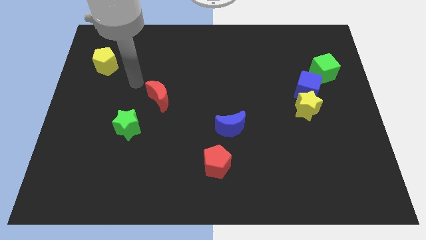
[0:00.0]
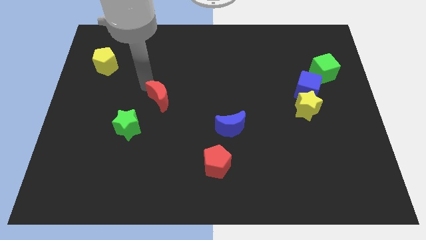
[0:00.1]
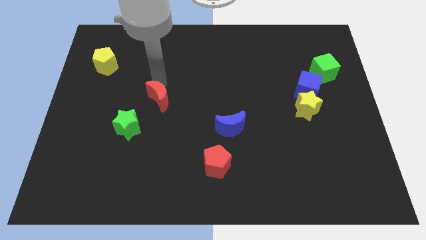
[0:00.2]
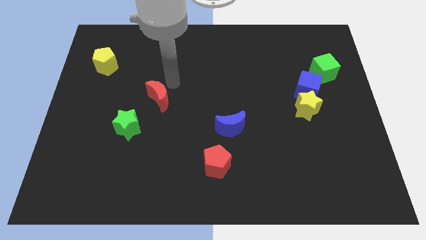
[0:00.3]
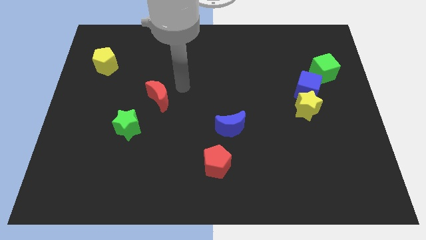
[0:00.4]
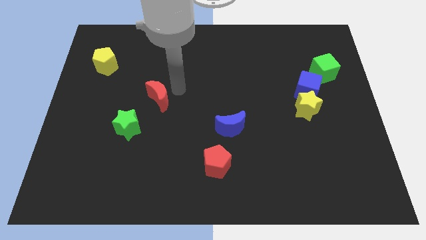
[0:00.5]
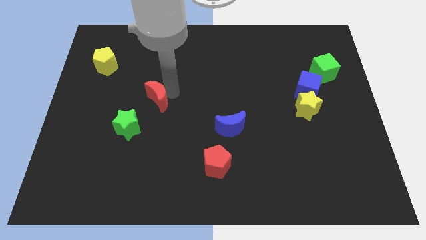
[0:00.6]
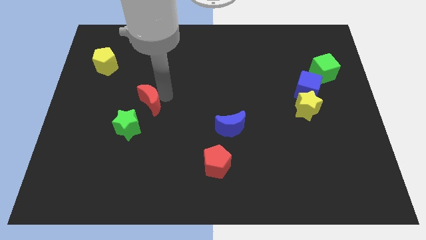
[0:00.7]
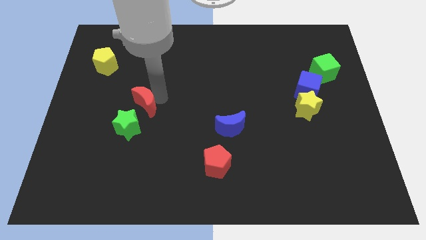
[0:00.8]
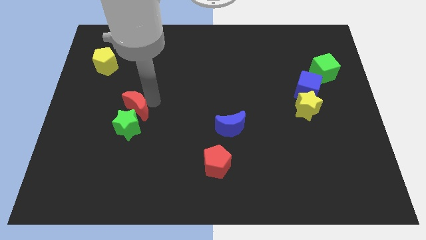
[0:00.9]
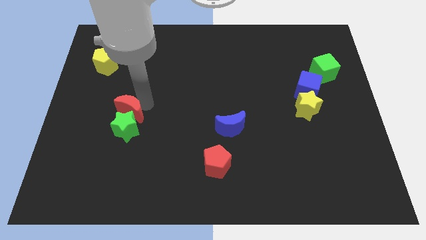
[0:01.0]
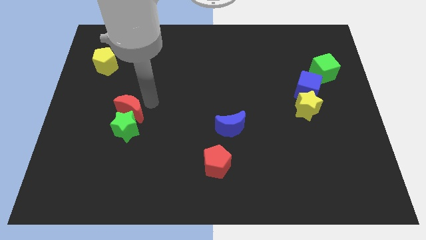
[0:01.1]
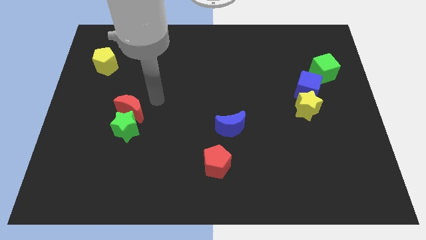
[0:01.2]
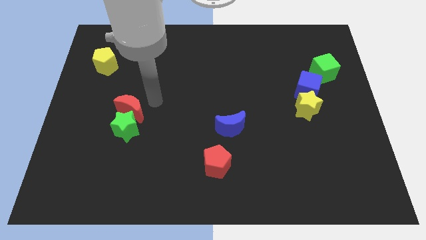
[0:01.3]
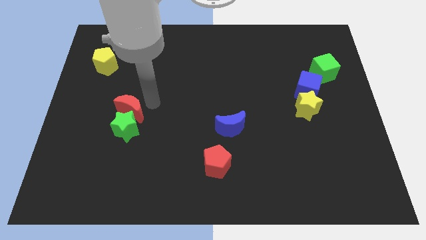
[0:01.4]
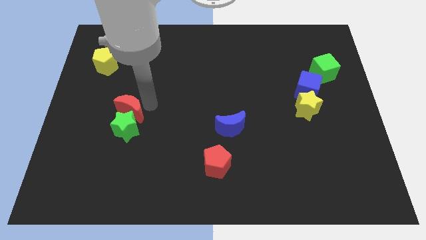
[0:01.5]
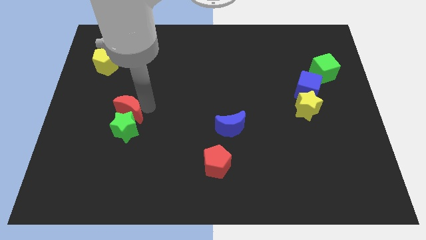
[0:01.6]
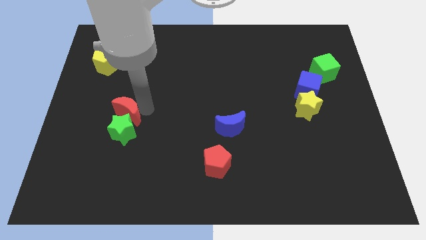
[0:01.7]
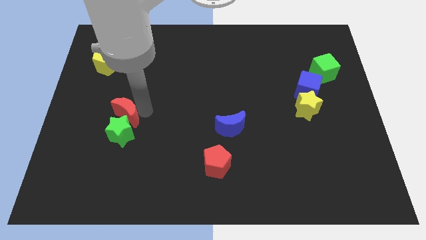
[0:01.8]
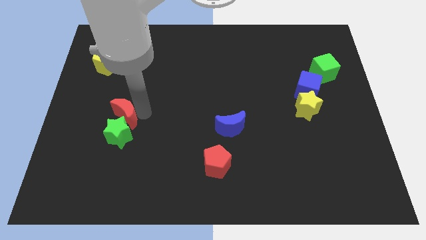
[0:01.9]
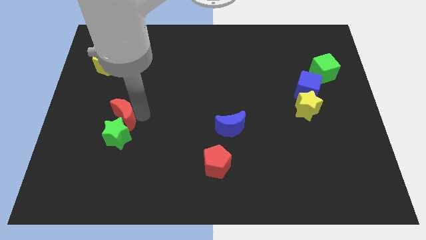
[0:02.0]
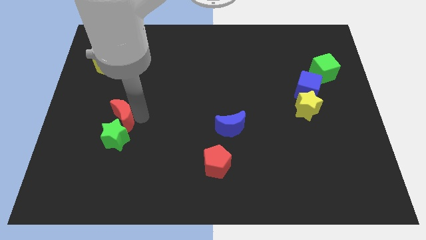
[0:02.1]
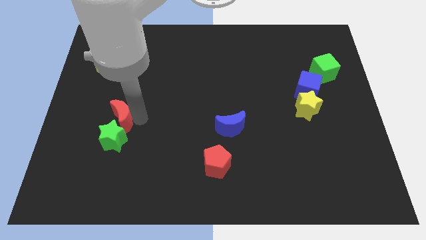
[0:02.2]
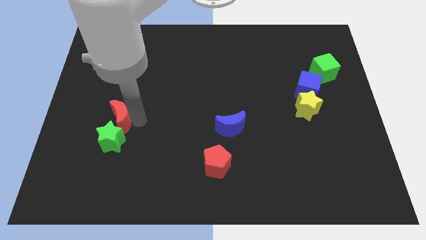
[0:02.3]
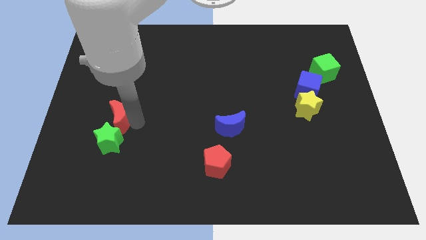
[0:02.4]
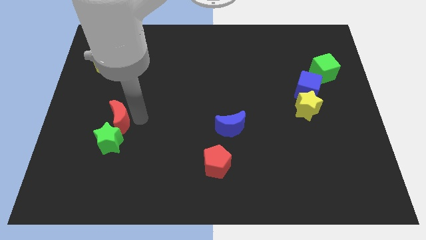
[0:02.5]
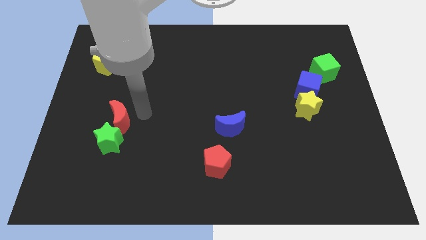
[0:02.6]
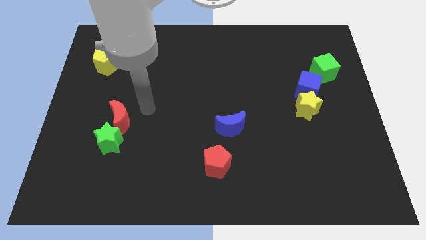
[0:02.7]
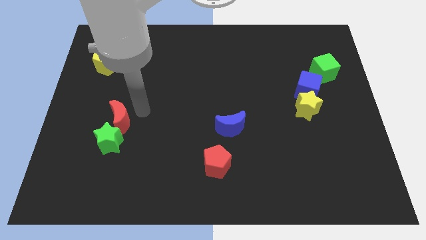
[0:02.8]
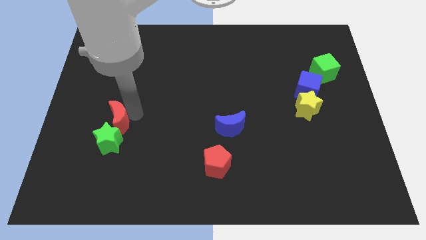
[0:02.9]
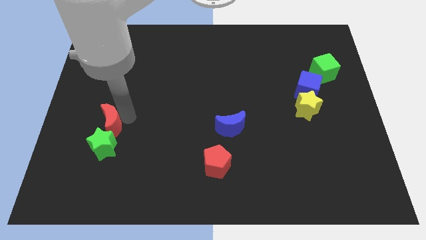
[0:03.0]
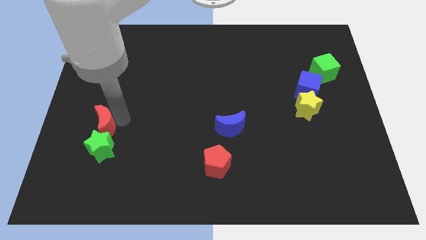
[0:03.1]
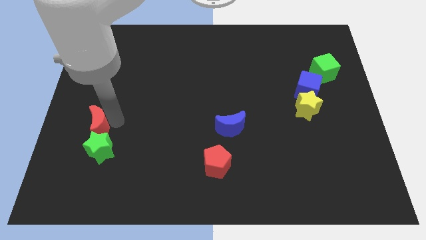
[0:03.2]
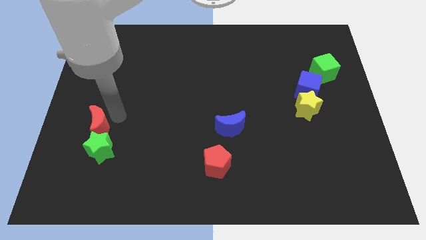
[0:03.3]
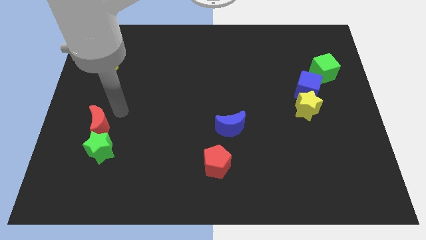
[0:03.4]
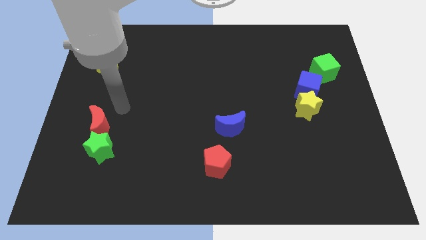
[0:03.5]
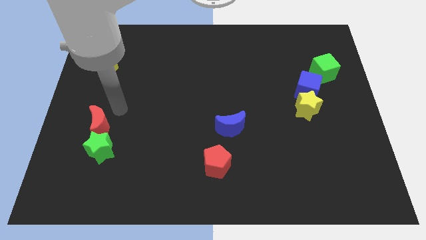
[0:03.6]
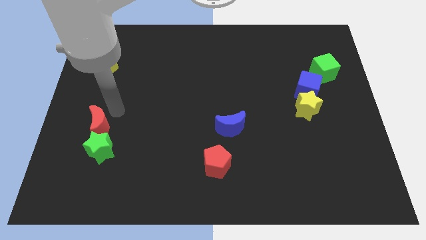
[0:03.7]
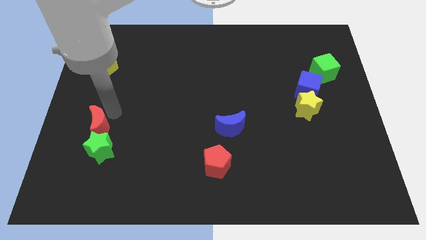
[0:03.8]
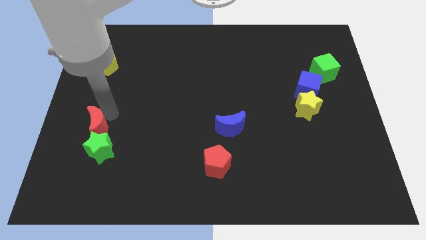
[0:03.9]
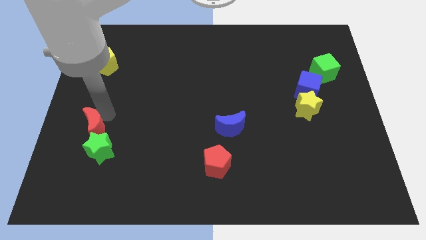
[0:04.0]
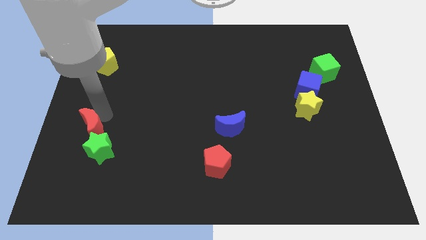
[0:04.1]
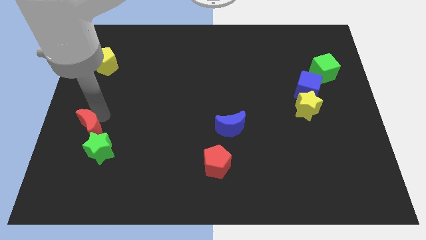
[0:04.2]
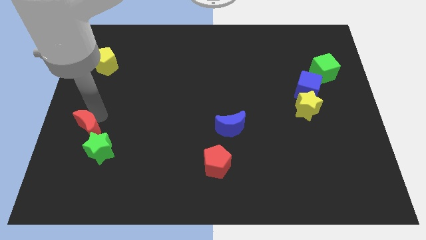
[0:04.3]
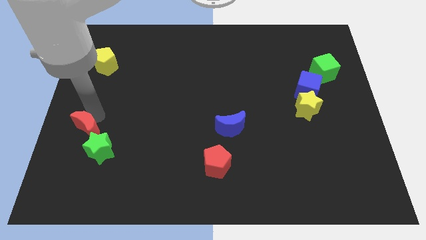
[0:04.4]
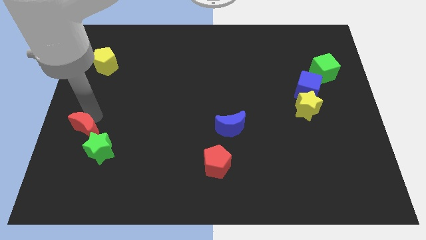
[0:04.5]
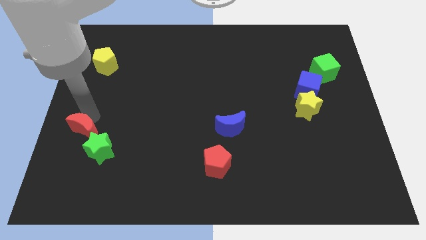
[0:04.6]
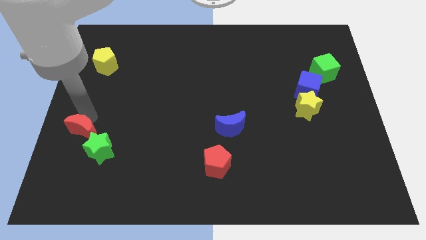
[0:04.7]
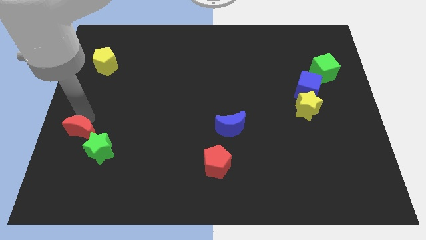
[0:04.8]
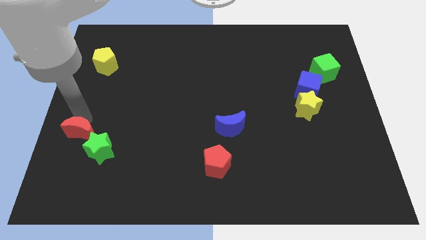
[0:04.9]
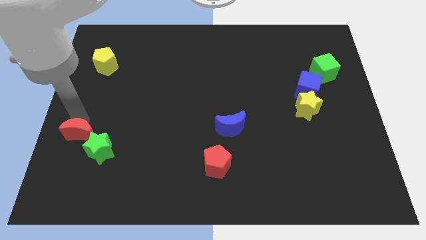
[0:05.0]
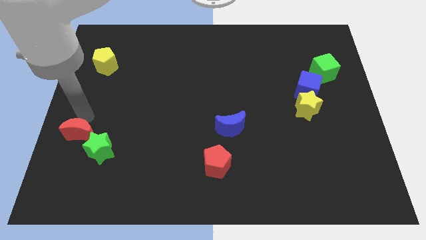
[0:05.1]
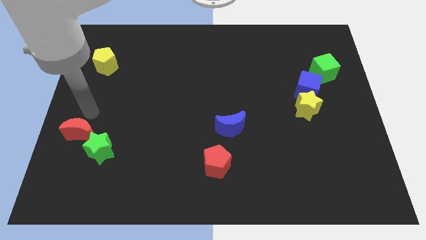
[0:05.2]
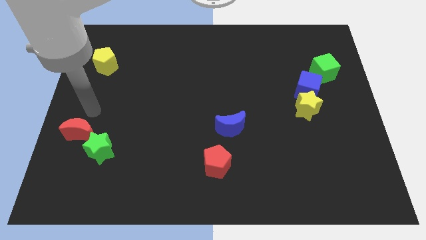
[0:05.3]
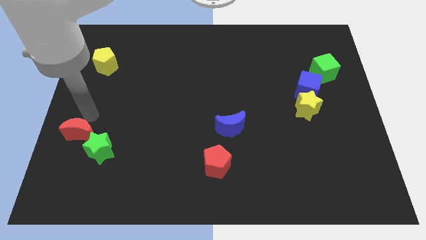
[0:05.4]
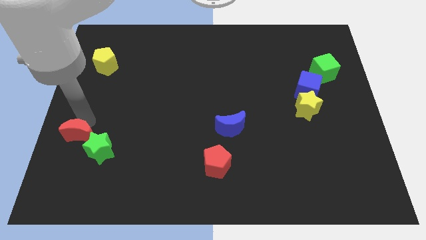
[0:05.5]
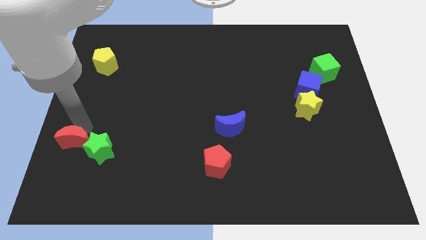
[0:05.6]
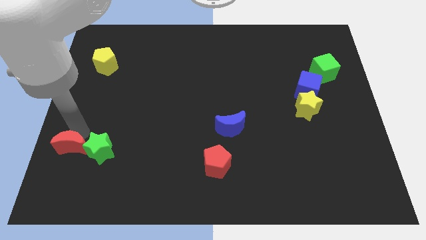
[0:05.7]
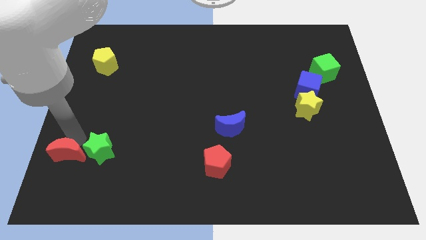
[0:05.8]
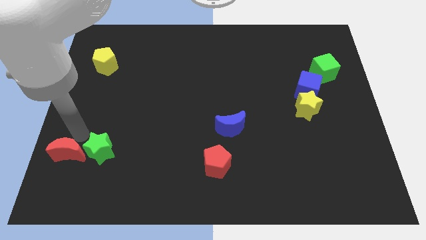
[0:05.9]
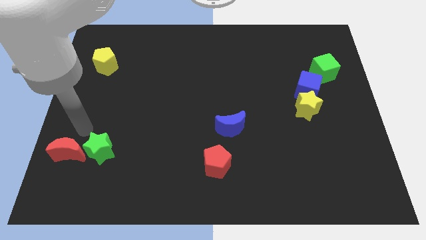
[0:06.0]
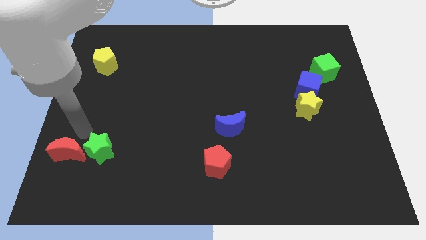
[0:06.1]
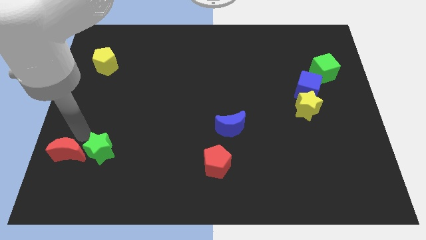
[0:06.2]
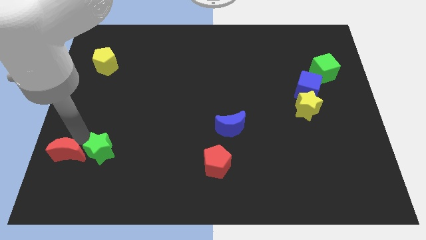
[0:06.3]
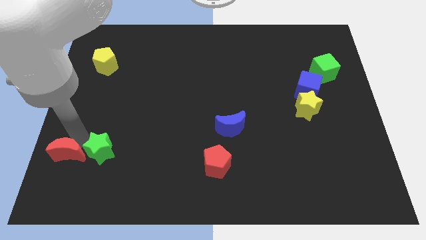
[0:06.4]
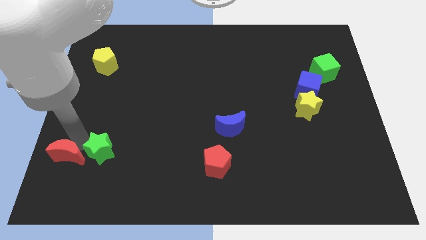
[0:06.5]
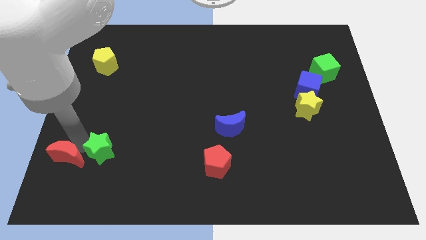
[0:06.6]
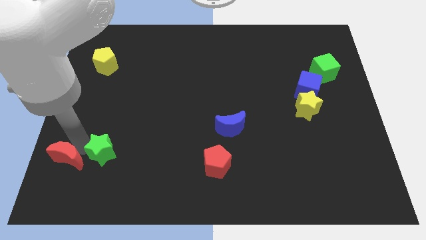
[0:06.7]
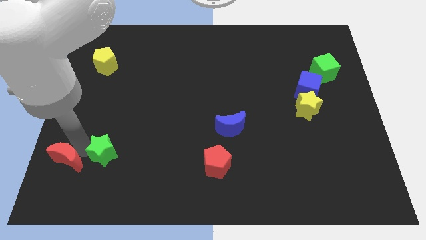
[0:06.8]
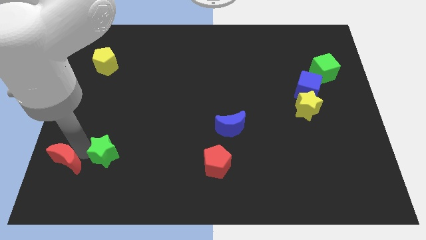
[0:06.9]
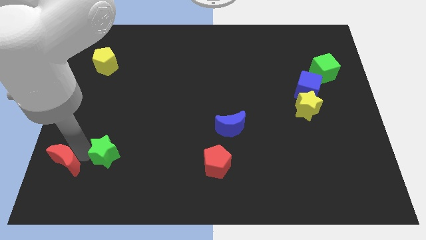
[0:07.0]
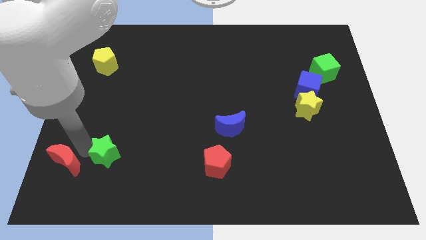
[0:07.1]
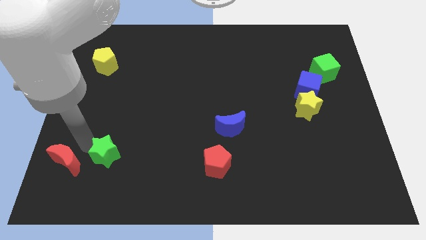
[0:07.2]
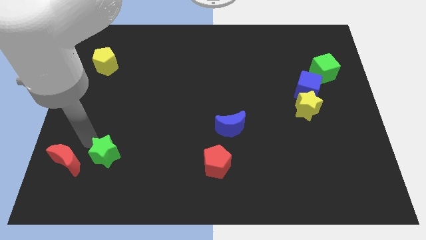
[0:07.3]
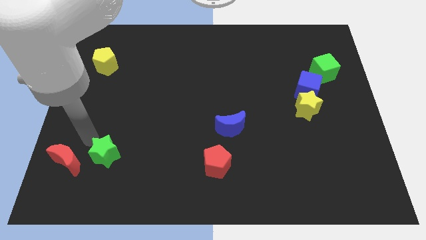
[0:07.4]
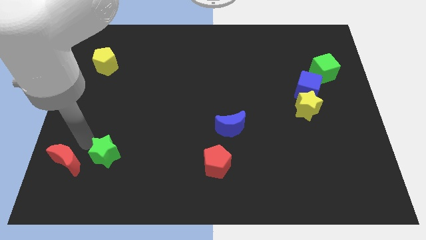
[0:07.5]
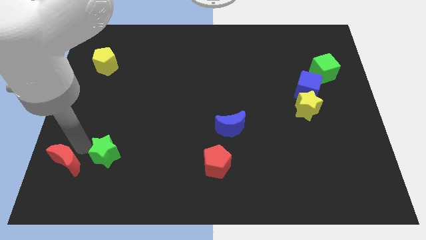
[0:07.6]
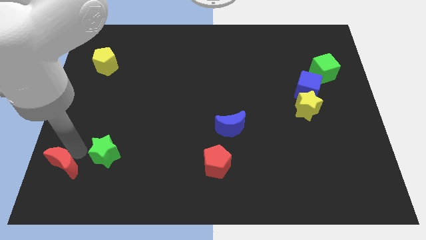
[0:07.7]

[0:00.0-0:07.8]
move the red moon to the bottom left of the board
